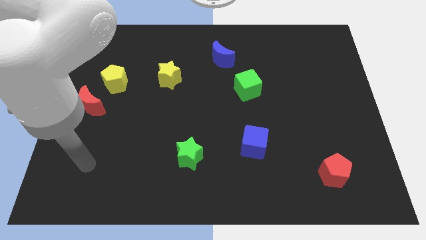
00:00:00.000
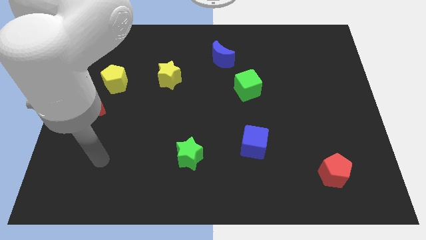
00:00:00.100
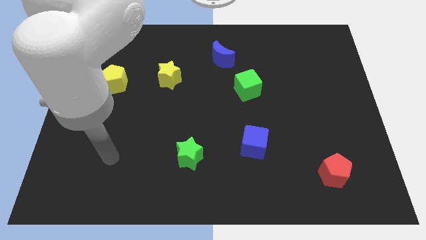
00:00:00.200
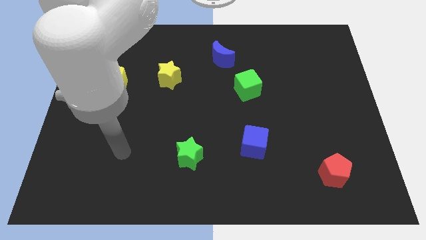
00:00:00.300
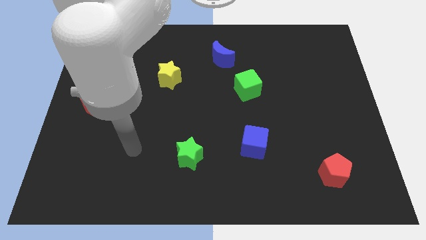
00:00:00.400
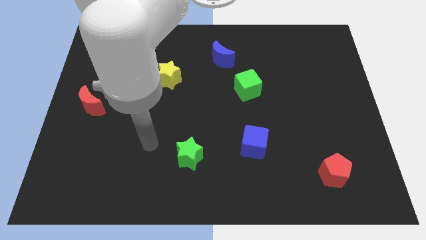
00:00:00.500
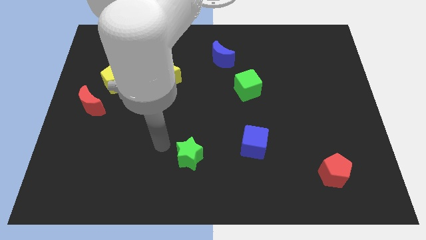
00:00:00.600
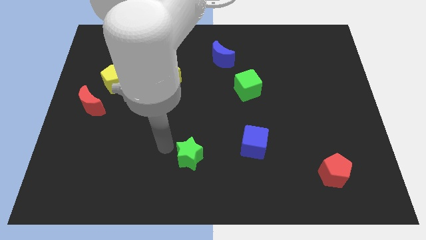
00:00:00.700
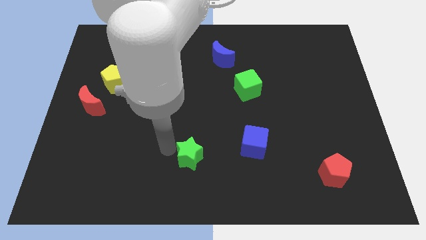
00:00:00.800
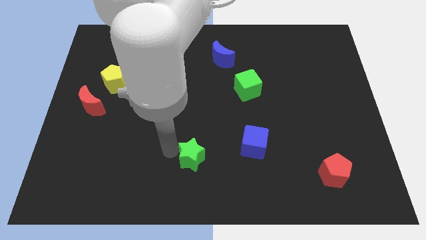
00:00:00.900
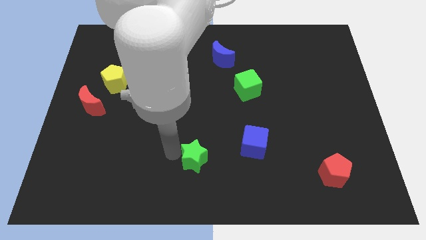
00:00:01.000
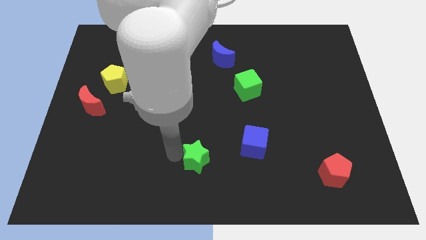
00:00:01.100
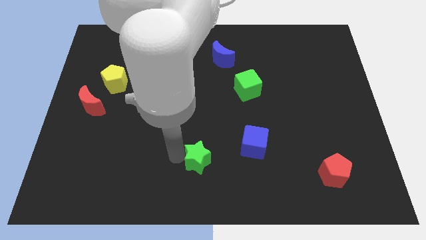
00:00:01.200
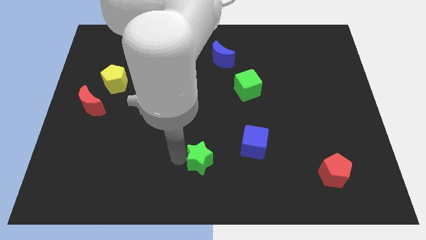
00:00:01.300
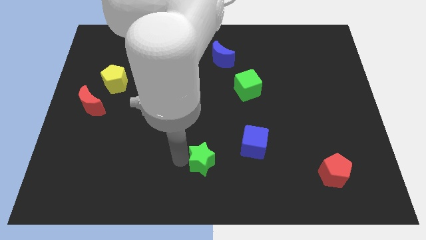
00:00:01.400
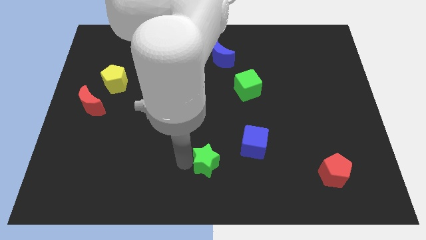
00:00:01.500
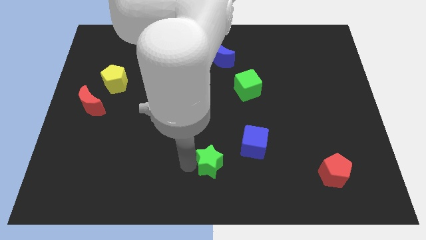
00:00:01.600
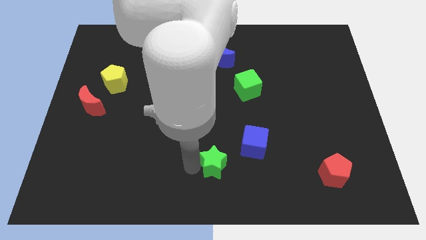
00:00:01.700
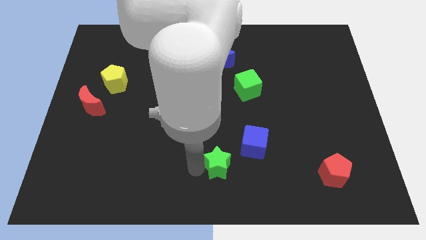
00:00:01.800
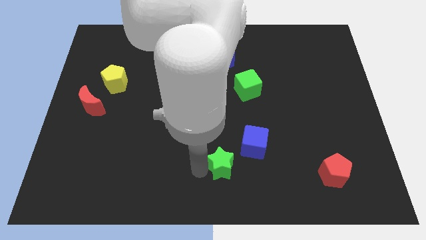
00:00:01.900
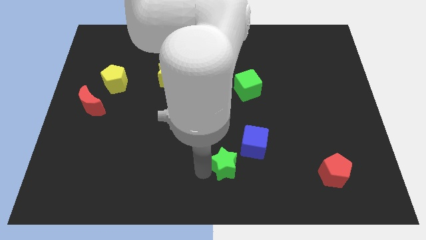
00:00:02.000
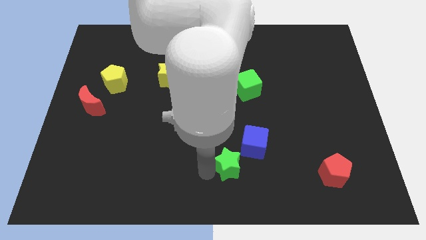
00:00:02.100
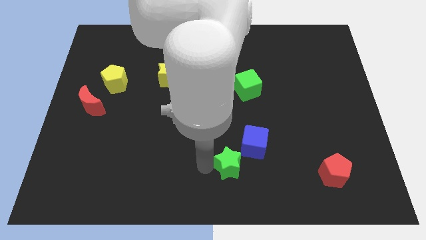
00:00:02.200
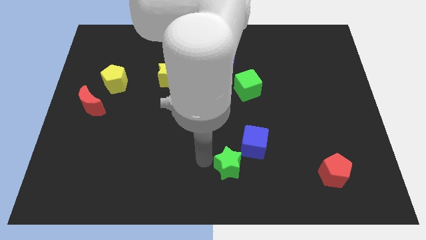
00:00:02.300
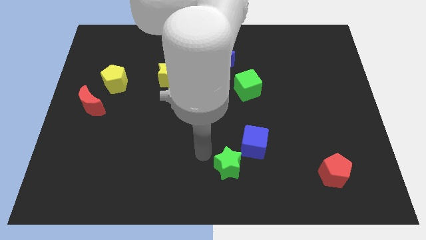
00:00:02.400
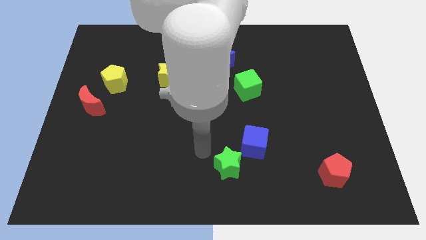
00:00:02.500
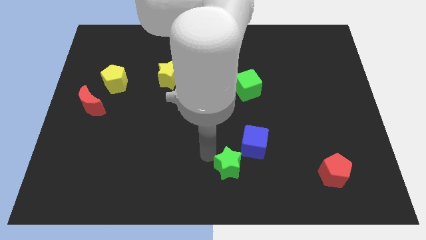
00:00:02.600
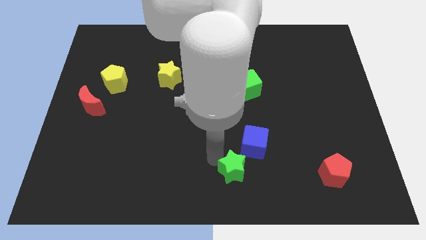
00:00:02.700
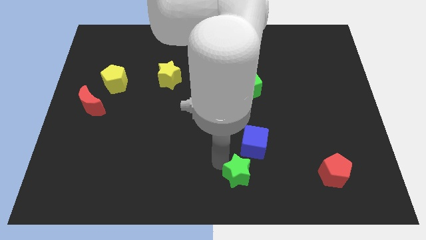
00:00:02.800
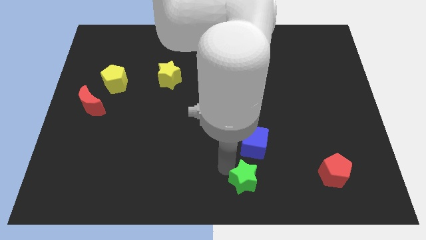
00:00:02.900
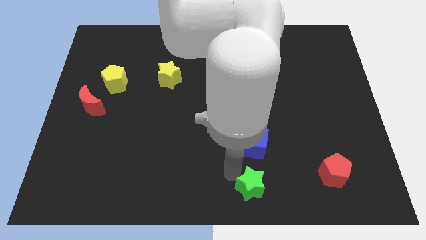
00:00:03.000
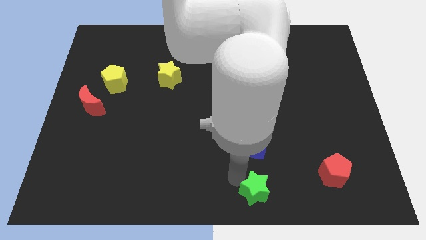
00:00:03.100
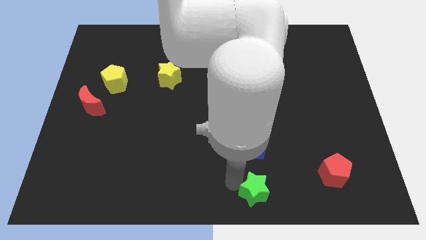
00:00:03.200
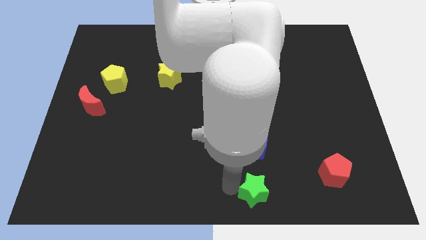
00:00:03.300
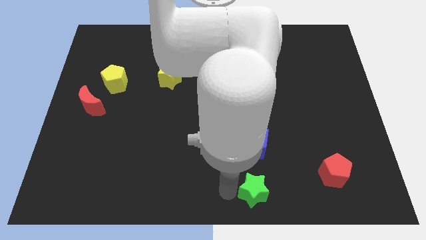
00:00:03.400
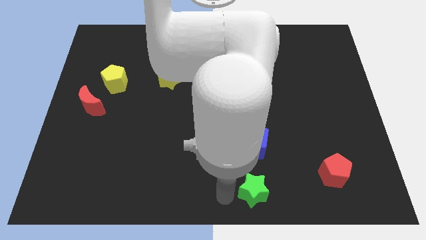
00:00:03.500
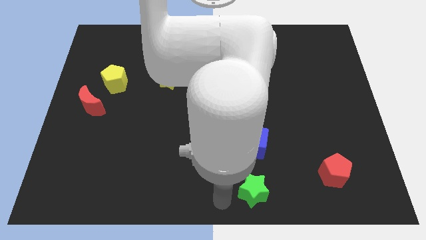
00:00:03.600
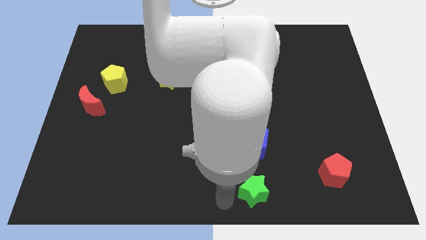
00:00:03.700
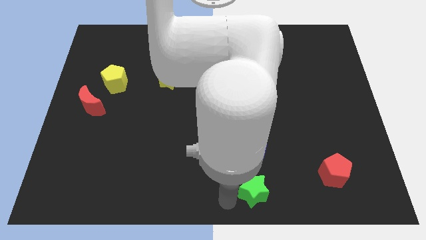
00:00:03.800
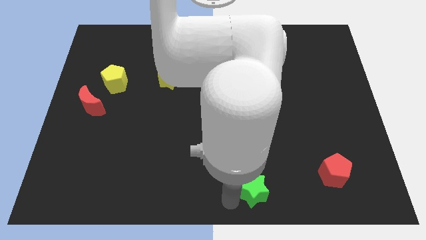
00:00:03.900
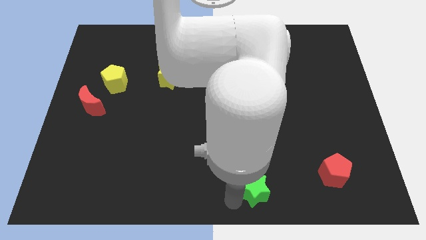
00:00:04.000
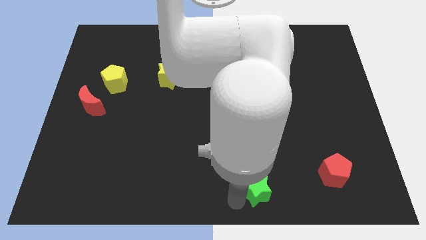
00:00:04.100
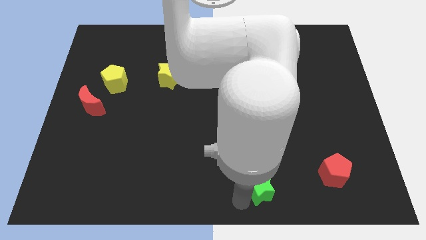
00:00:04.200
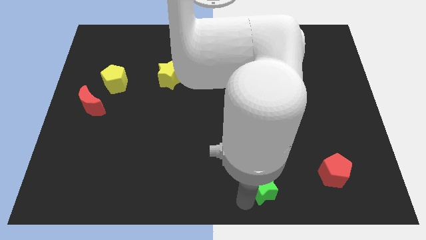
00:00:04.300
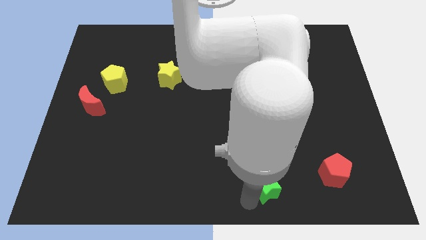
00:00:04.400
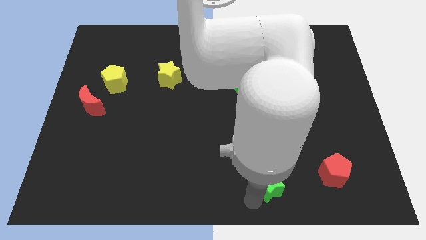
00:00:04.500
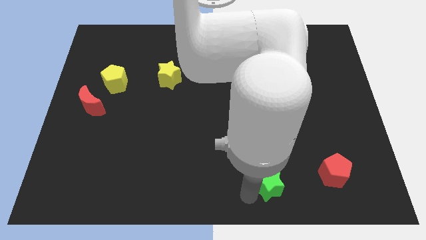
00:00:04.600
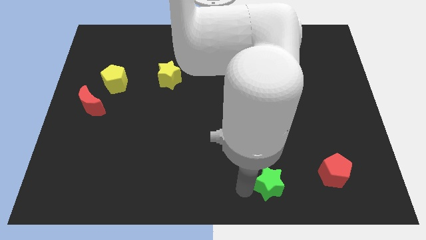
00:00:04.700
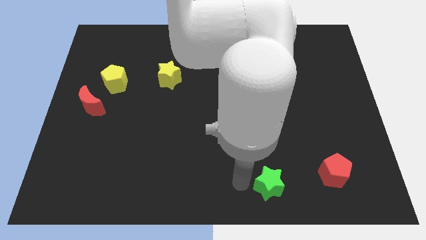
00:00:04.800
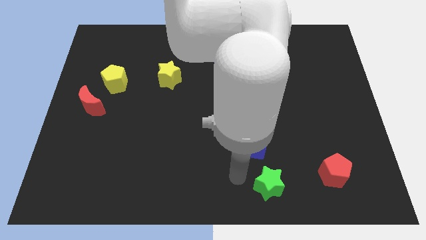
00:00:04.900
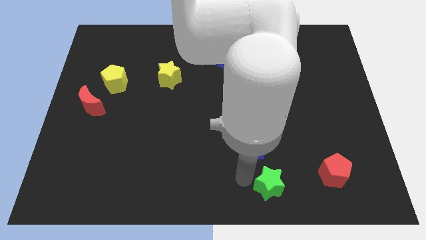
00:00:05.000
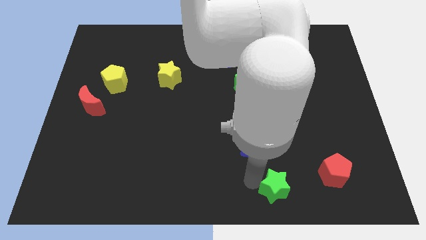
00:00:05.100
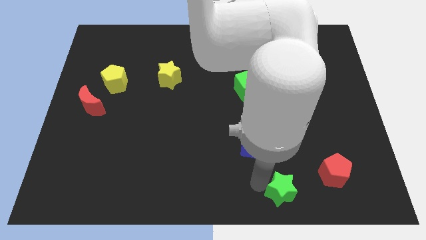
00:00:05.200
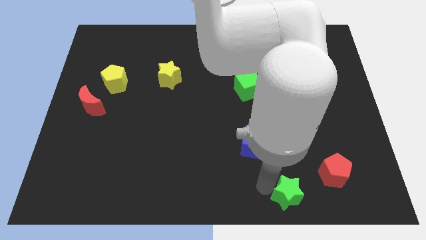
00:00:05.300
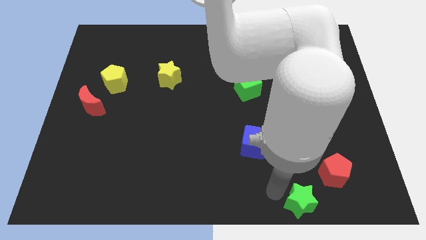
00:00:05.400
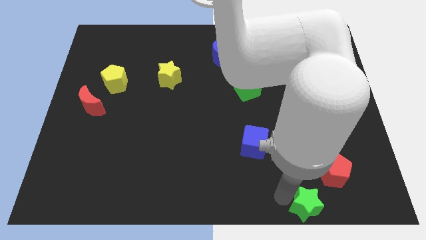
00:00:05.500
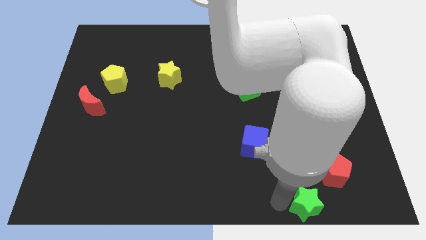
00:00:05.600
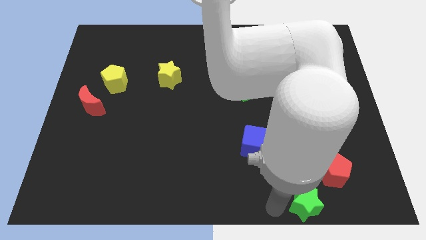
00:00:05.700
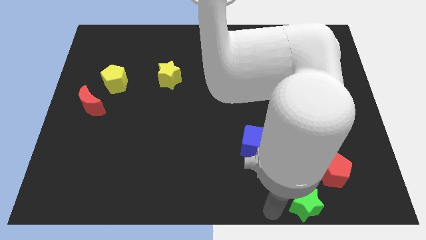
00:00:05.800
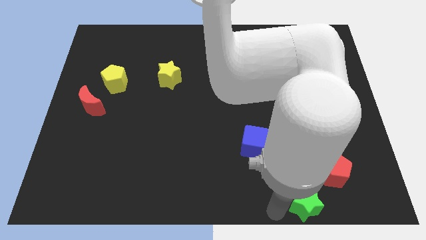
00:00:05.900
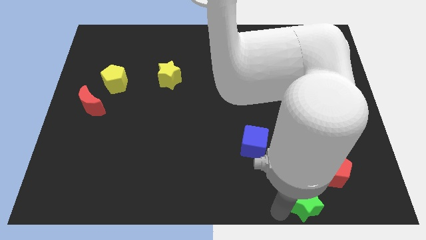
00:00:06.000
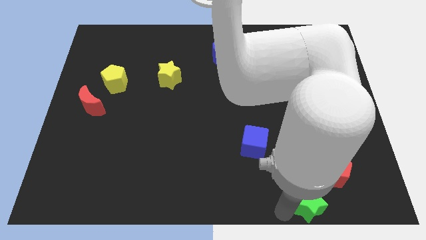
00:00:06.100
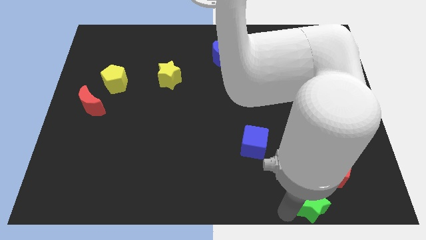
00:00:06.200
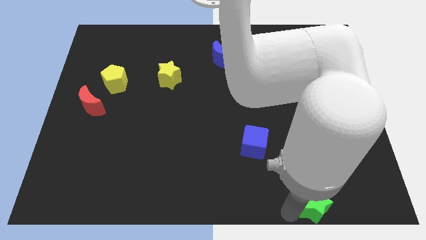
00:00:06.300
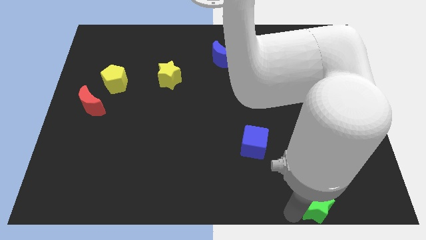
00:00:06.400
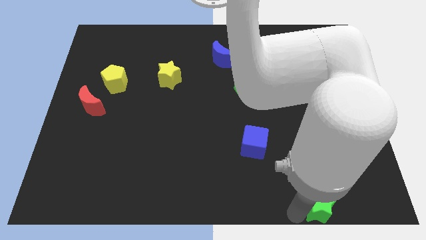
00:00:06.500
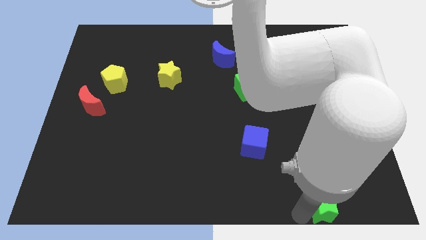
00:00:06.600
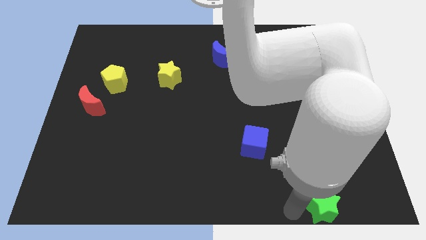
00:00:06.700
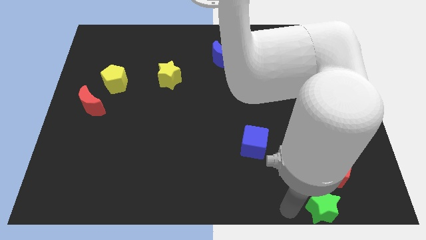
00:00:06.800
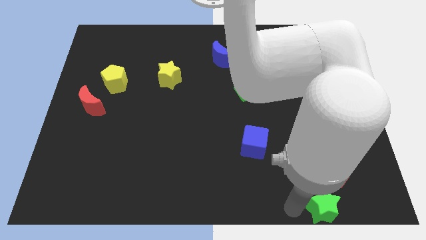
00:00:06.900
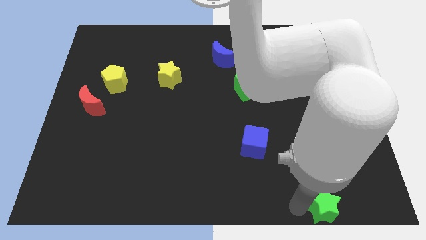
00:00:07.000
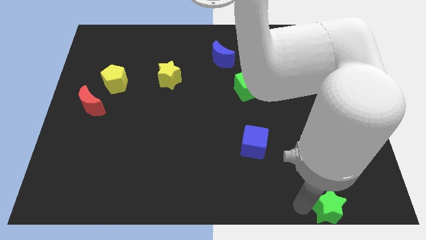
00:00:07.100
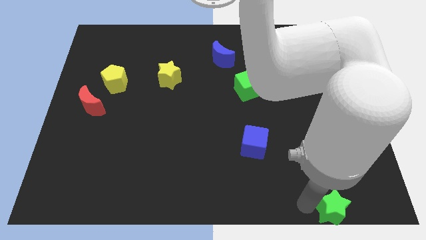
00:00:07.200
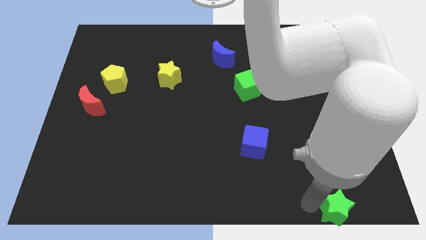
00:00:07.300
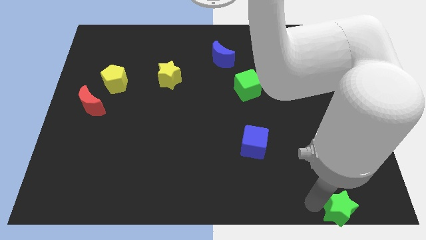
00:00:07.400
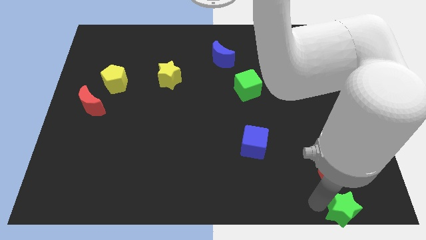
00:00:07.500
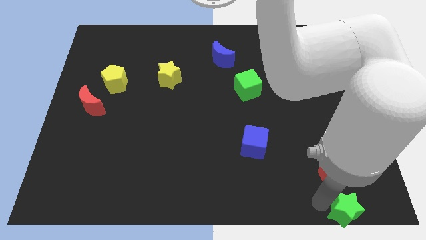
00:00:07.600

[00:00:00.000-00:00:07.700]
put the green star to the lower right corner
